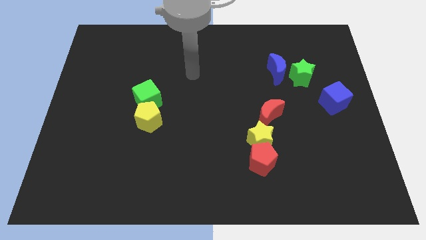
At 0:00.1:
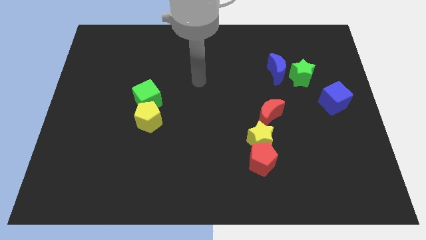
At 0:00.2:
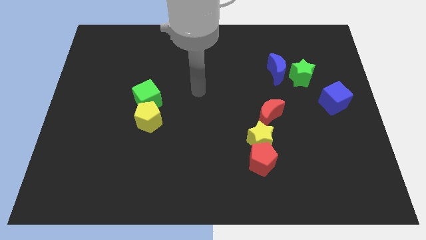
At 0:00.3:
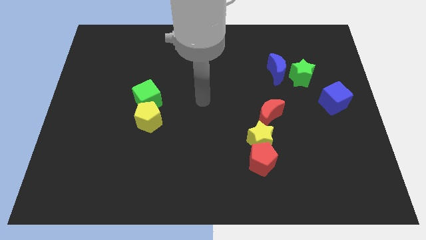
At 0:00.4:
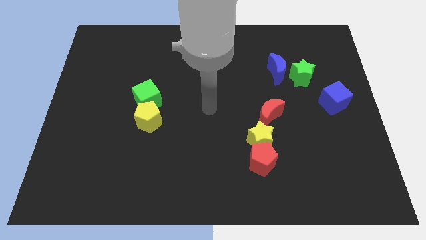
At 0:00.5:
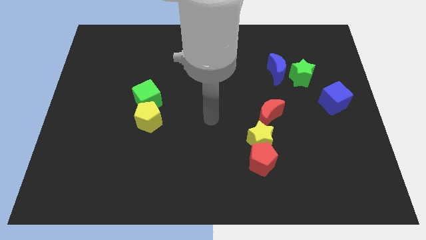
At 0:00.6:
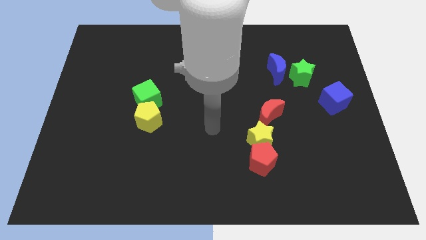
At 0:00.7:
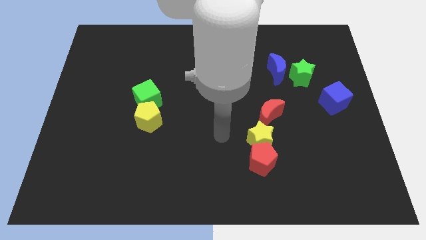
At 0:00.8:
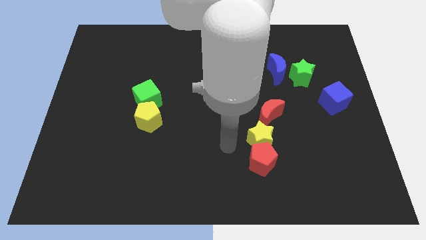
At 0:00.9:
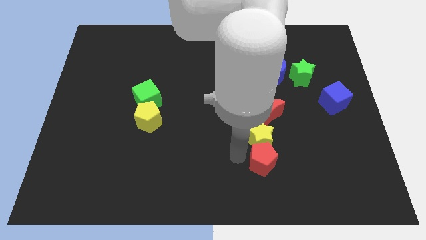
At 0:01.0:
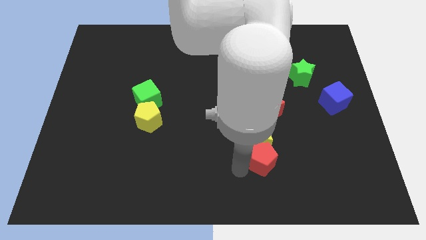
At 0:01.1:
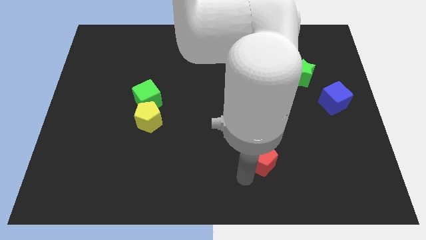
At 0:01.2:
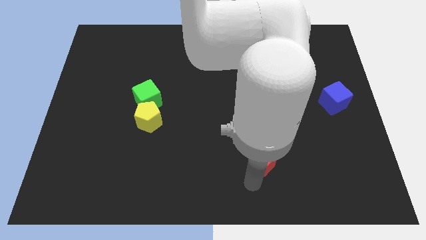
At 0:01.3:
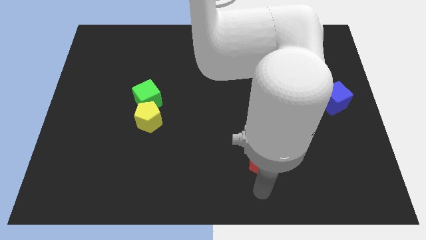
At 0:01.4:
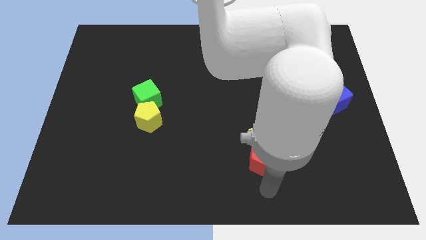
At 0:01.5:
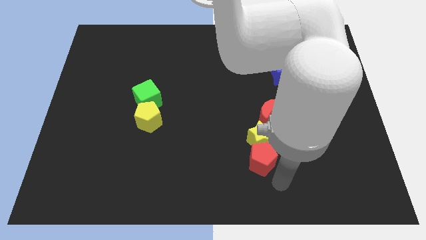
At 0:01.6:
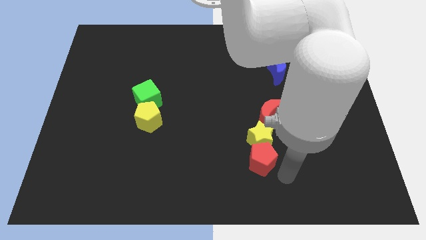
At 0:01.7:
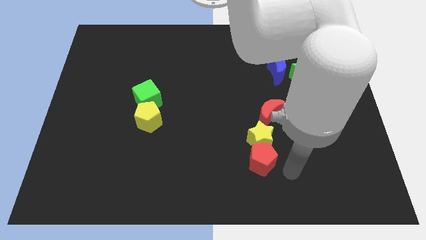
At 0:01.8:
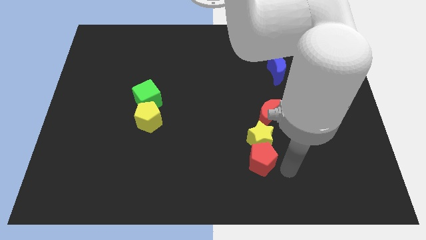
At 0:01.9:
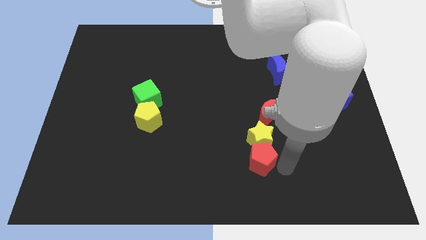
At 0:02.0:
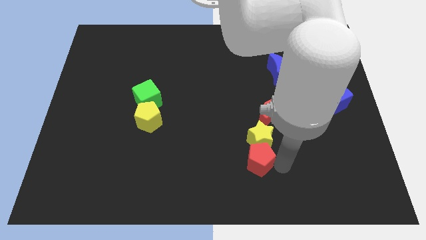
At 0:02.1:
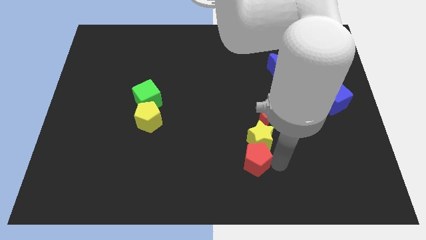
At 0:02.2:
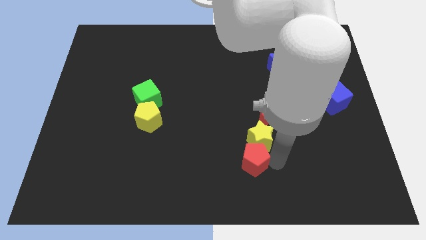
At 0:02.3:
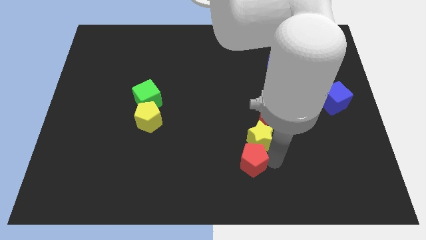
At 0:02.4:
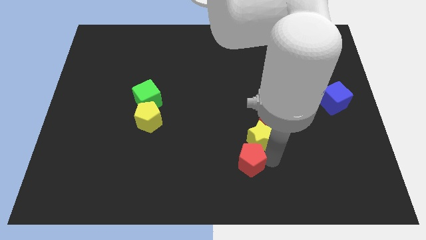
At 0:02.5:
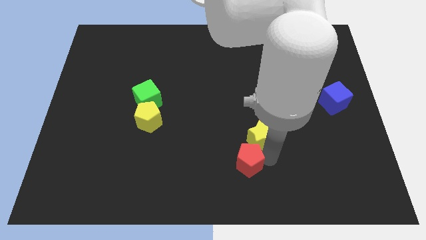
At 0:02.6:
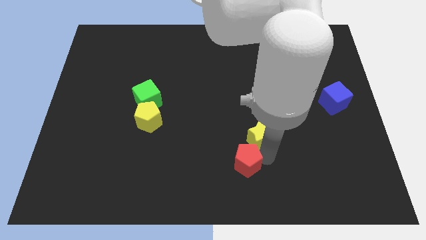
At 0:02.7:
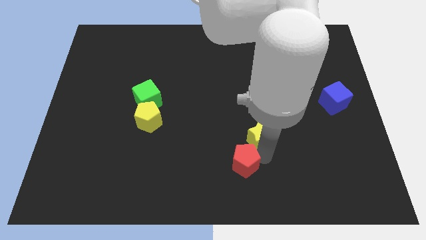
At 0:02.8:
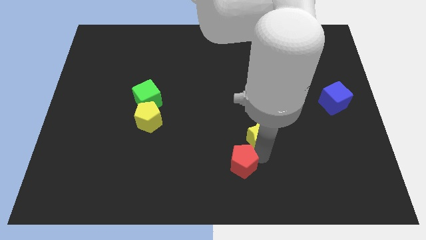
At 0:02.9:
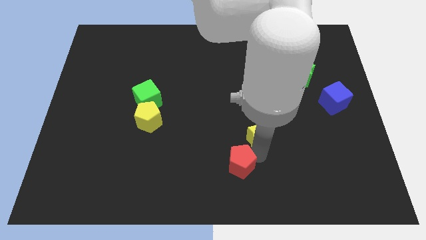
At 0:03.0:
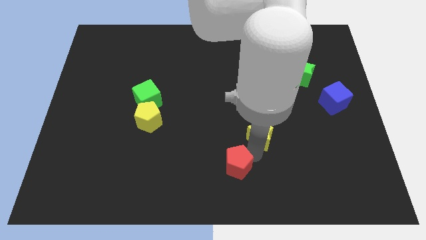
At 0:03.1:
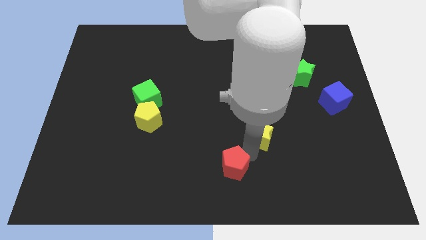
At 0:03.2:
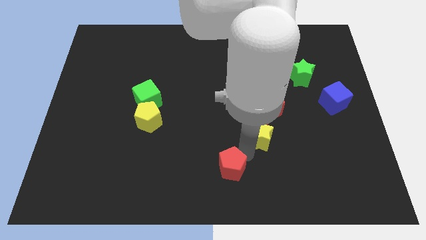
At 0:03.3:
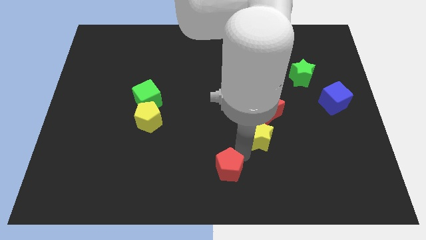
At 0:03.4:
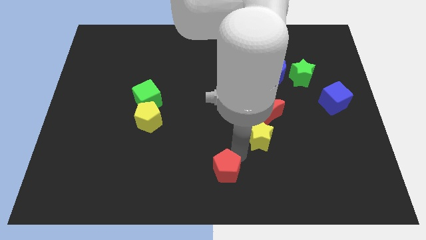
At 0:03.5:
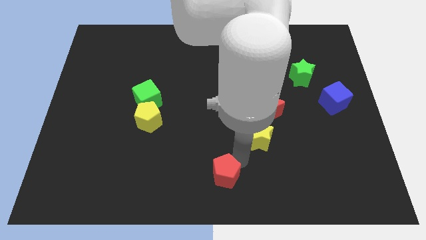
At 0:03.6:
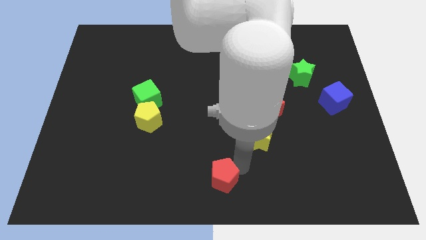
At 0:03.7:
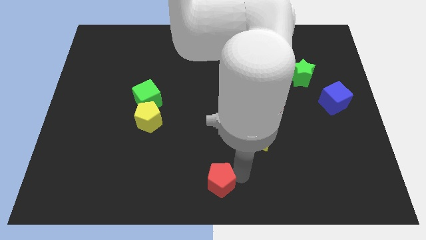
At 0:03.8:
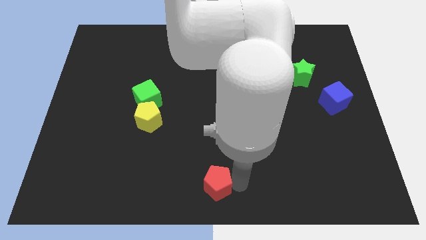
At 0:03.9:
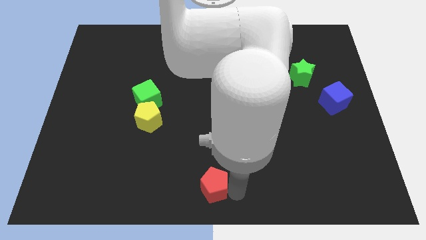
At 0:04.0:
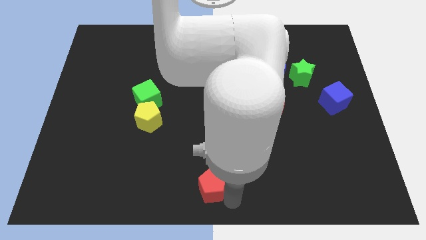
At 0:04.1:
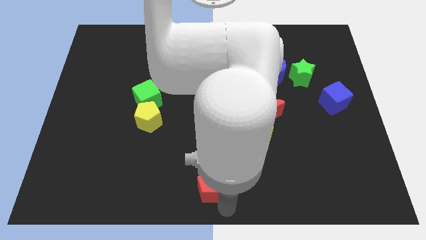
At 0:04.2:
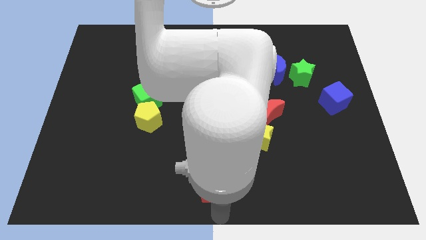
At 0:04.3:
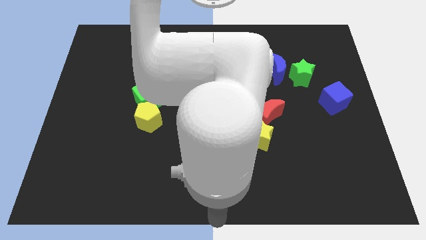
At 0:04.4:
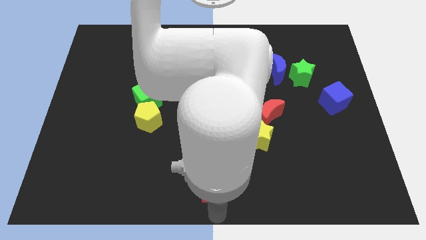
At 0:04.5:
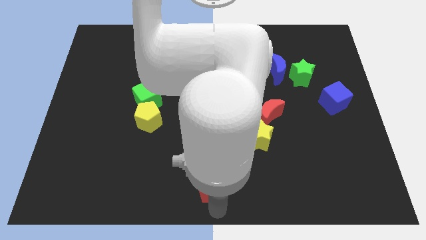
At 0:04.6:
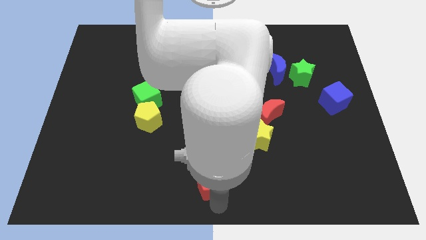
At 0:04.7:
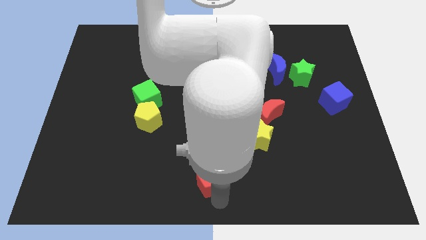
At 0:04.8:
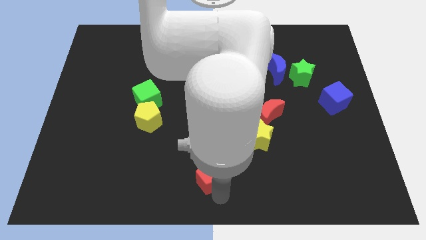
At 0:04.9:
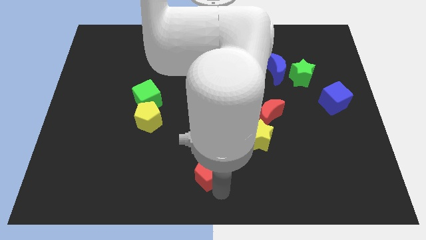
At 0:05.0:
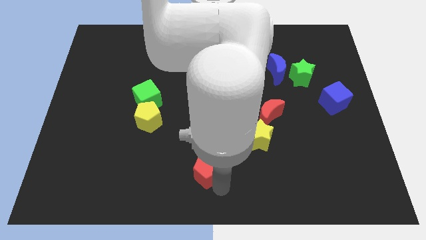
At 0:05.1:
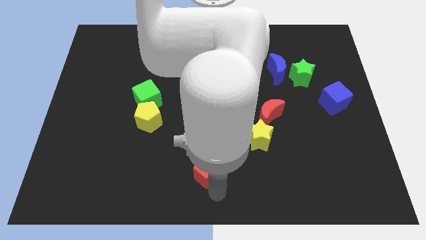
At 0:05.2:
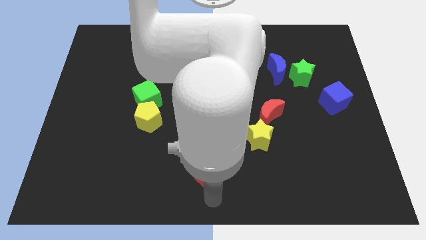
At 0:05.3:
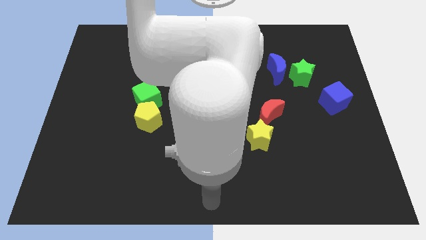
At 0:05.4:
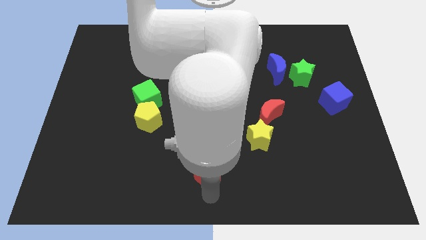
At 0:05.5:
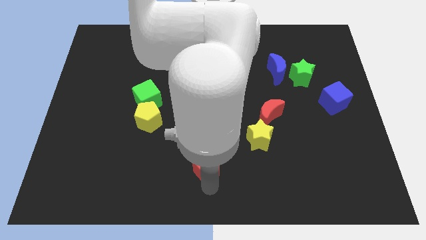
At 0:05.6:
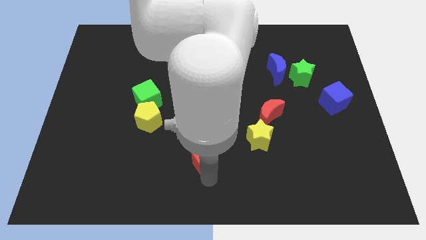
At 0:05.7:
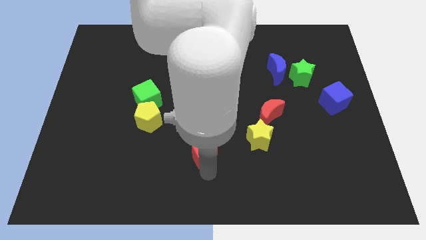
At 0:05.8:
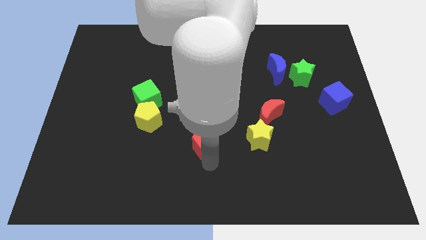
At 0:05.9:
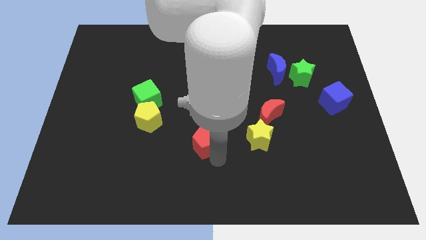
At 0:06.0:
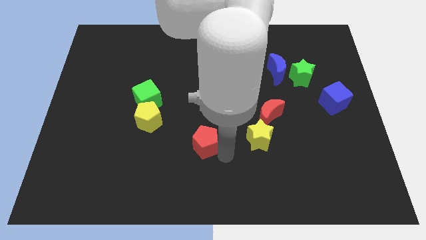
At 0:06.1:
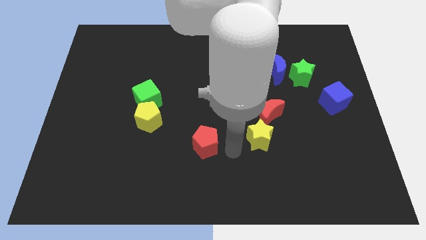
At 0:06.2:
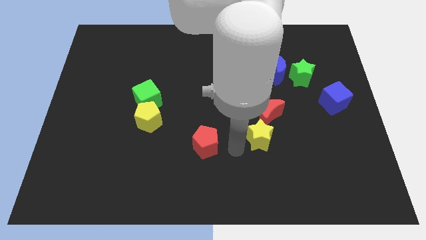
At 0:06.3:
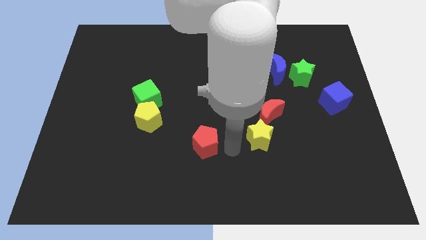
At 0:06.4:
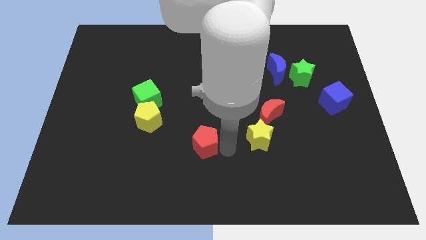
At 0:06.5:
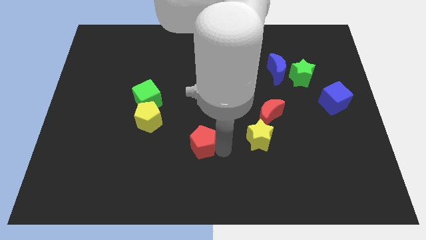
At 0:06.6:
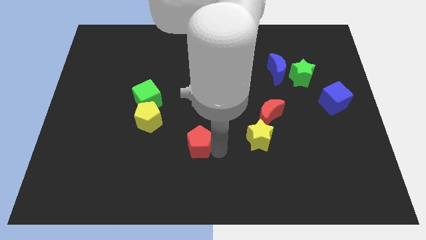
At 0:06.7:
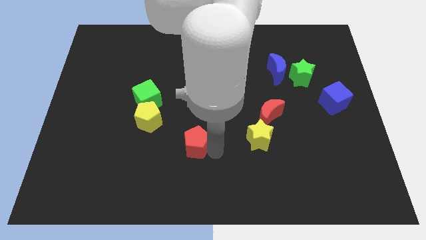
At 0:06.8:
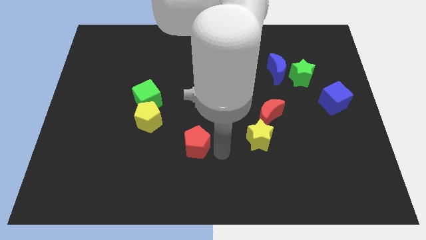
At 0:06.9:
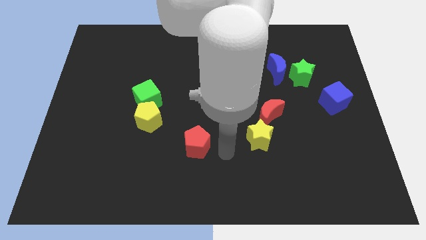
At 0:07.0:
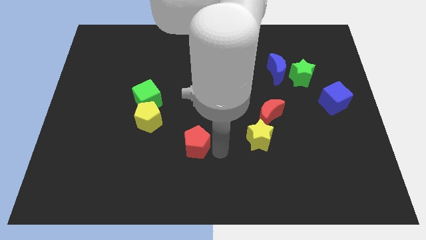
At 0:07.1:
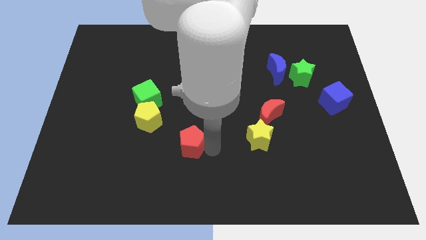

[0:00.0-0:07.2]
put the red pentagon to the bottom right side of the yellow pentagon
